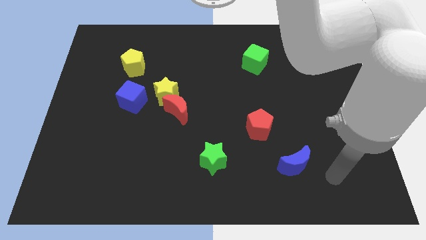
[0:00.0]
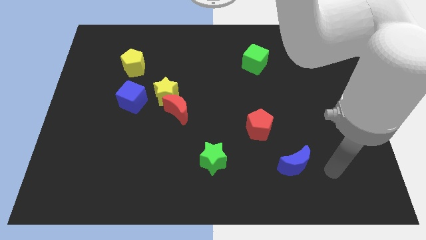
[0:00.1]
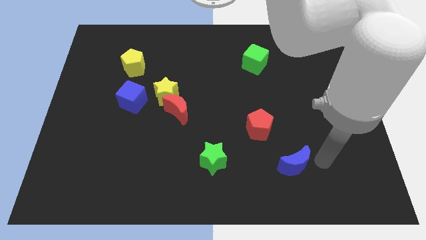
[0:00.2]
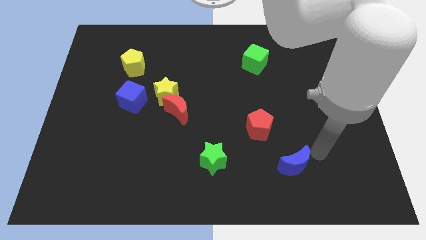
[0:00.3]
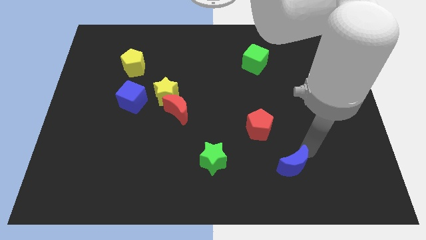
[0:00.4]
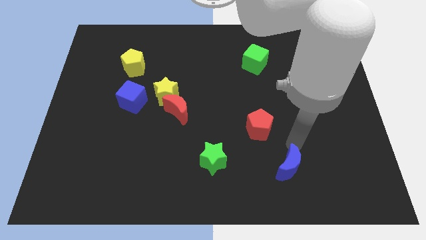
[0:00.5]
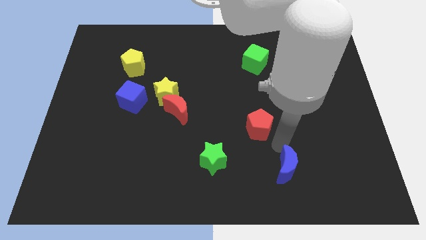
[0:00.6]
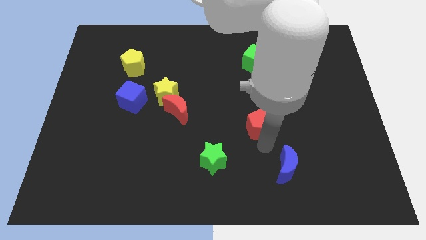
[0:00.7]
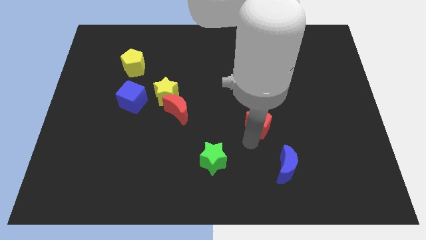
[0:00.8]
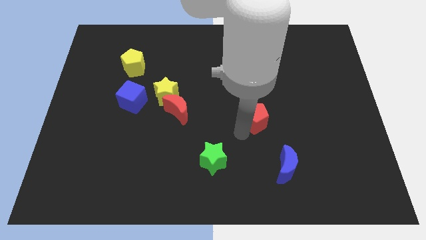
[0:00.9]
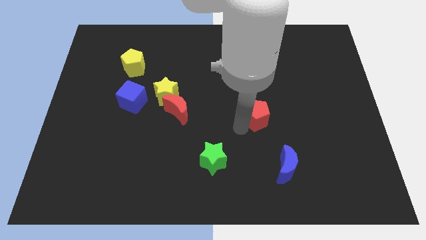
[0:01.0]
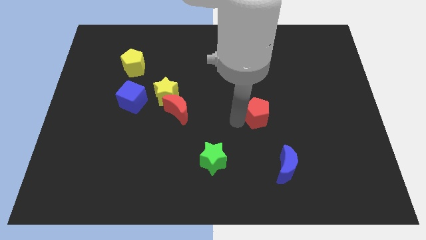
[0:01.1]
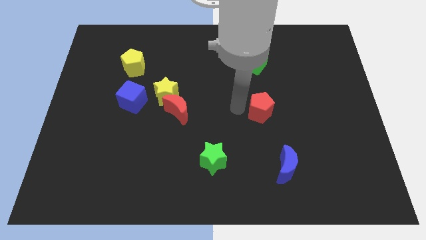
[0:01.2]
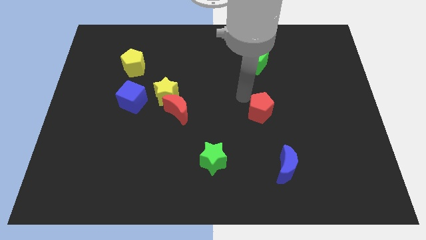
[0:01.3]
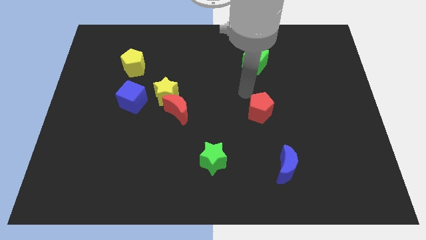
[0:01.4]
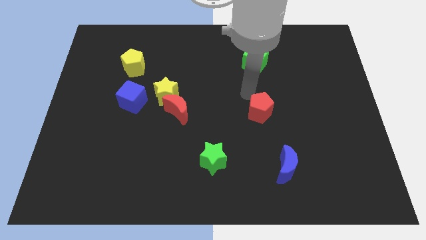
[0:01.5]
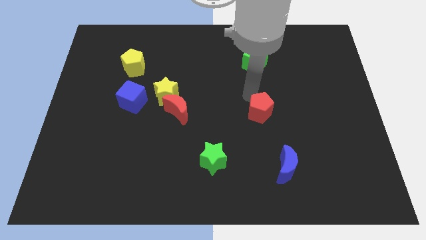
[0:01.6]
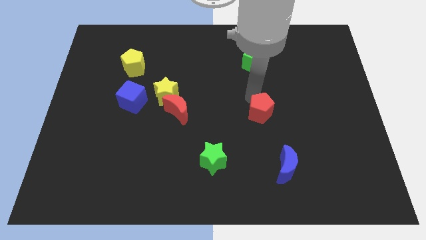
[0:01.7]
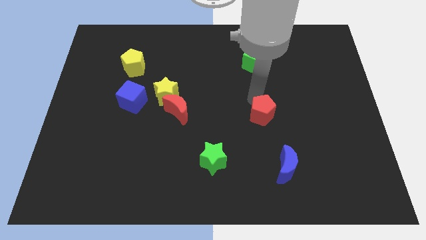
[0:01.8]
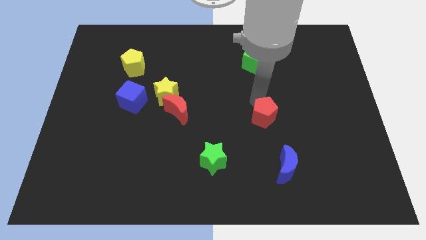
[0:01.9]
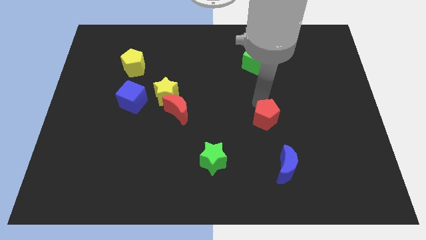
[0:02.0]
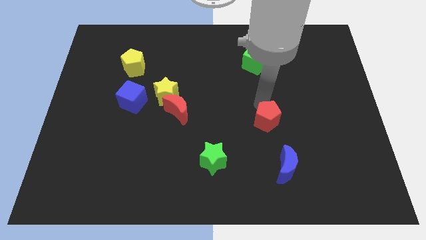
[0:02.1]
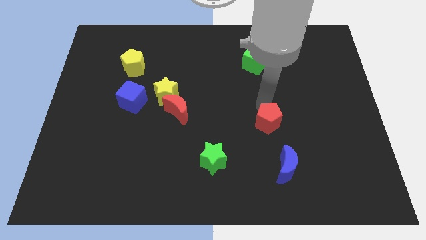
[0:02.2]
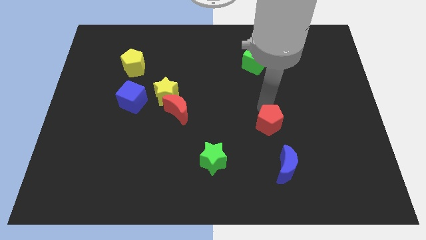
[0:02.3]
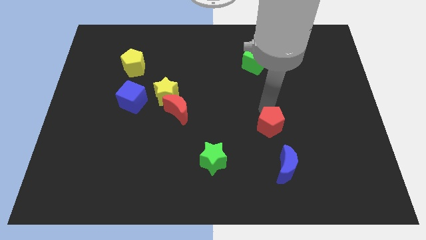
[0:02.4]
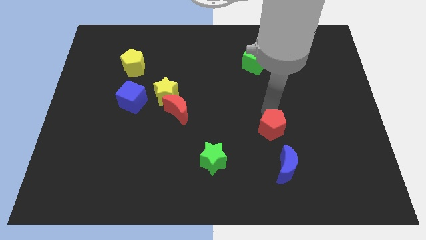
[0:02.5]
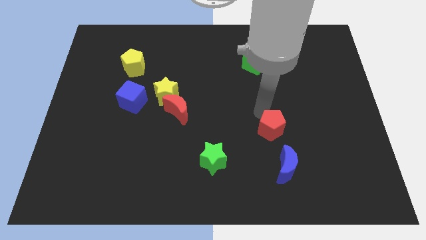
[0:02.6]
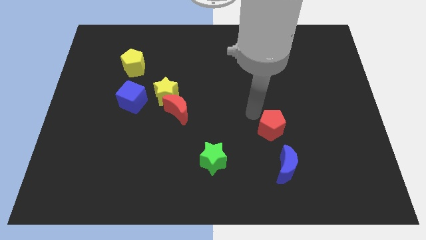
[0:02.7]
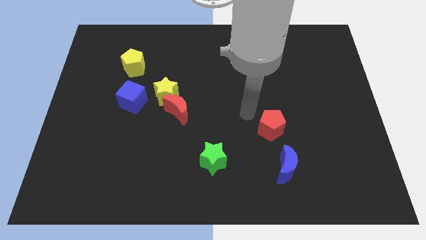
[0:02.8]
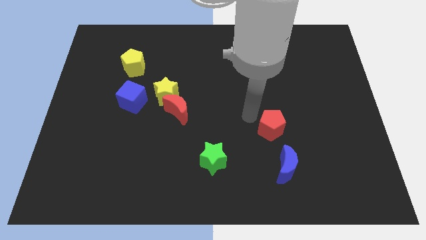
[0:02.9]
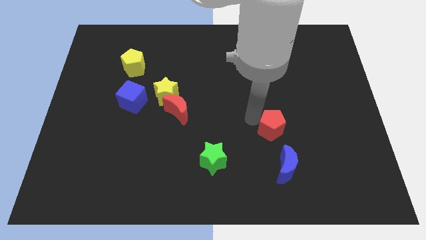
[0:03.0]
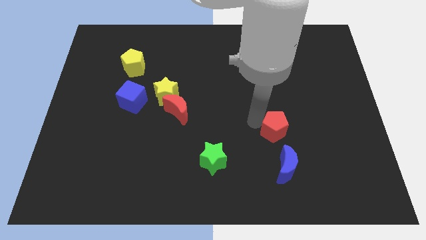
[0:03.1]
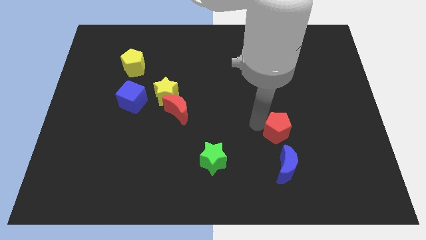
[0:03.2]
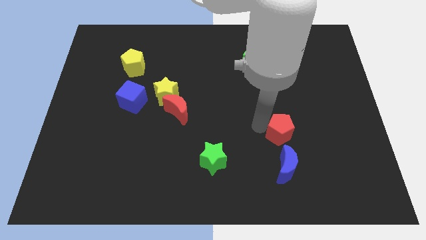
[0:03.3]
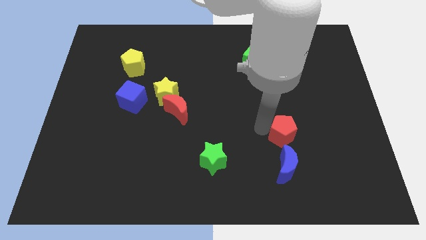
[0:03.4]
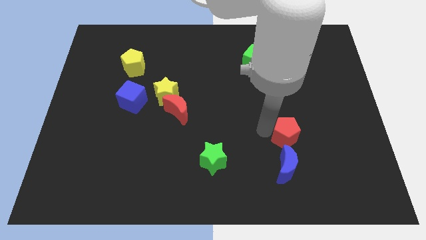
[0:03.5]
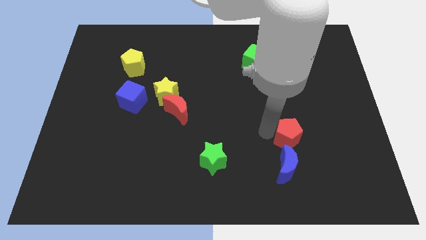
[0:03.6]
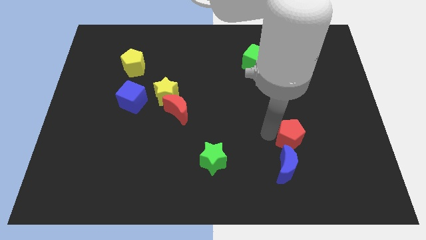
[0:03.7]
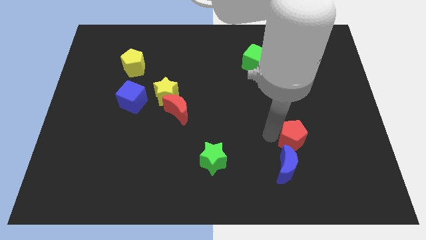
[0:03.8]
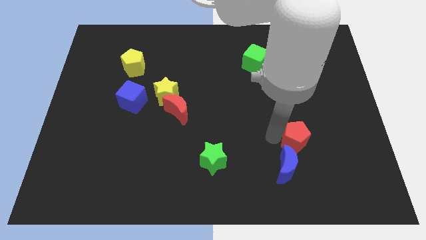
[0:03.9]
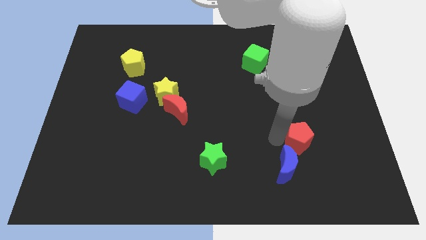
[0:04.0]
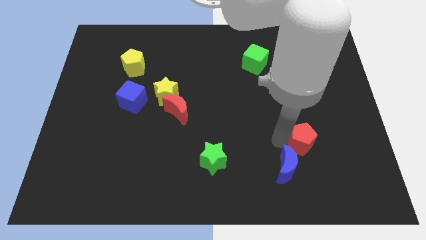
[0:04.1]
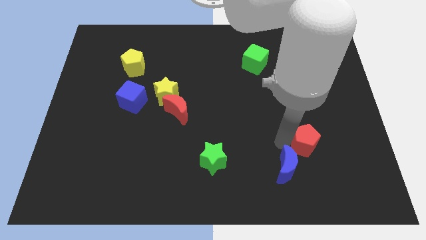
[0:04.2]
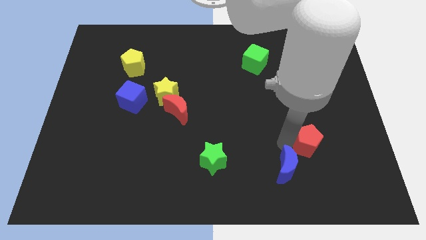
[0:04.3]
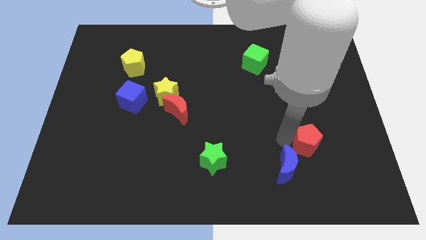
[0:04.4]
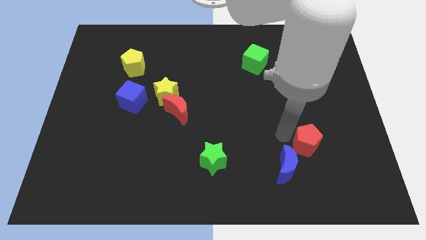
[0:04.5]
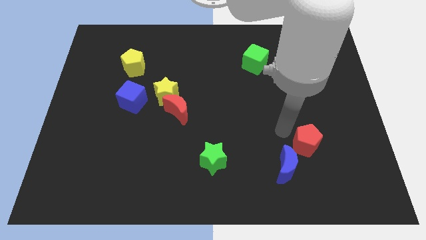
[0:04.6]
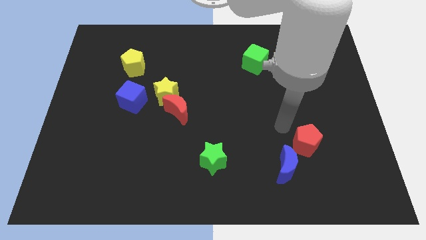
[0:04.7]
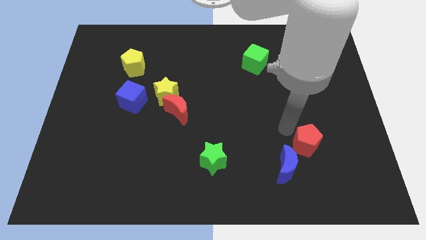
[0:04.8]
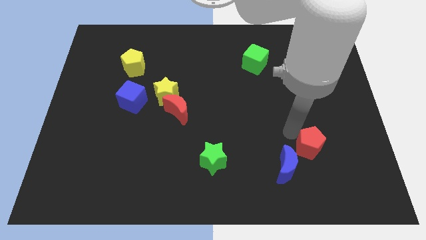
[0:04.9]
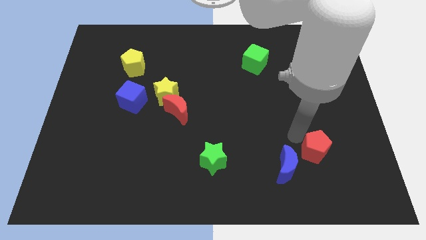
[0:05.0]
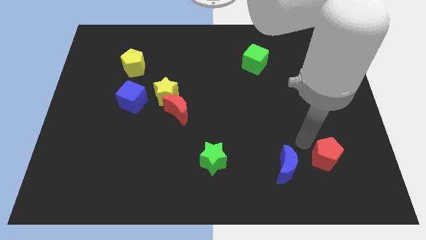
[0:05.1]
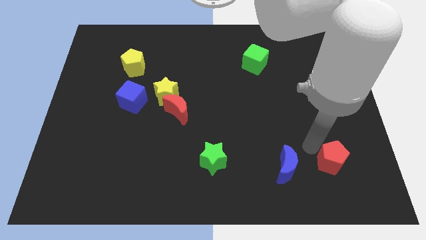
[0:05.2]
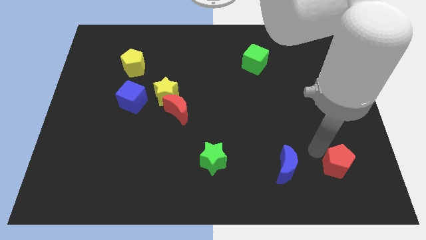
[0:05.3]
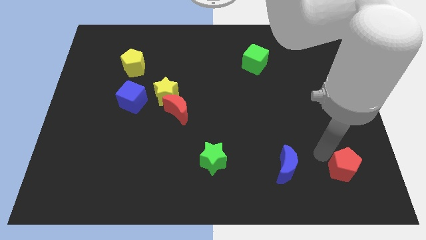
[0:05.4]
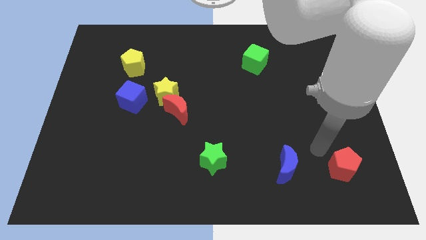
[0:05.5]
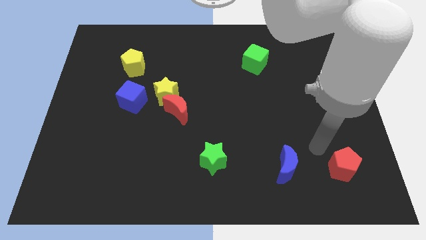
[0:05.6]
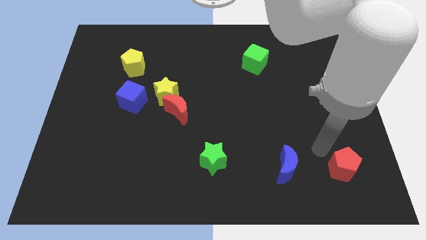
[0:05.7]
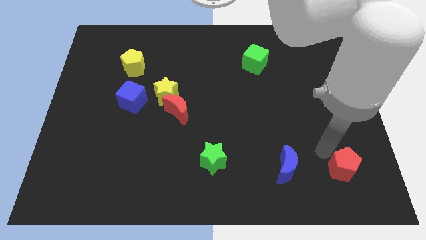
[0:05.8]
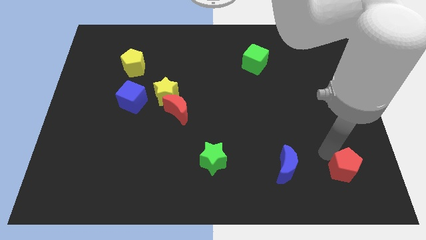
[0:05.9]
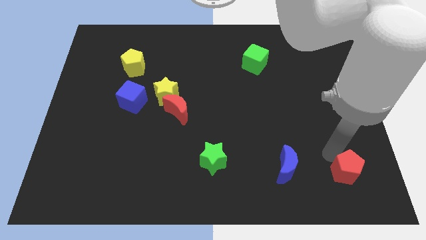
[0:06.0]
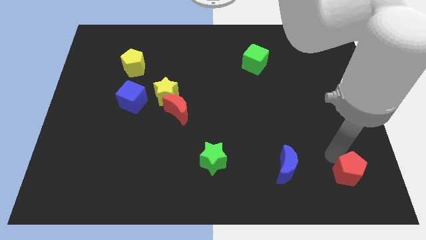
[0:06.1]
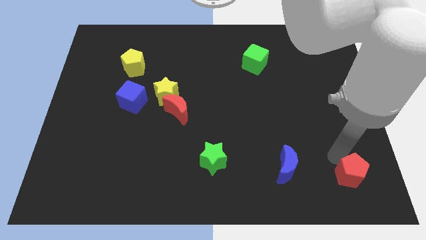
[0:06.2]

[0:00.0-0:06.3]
put the red pentagon to the bottom right of the board

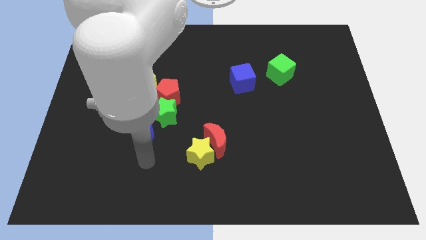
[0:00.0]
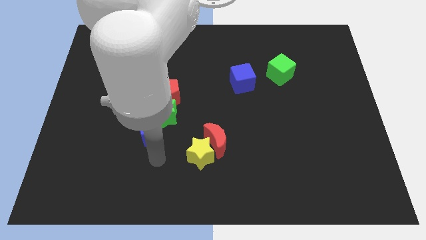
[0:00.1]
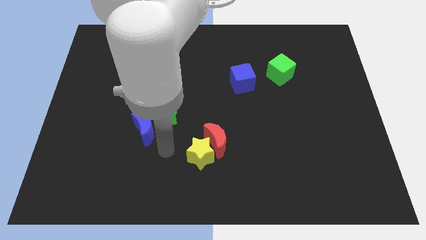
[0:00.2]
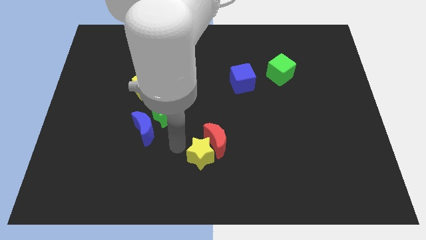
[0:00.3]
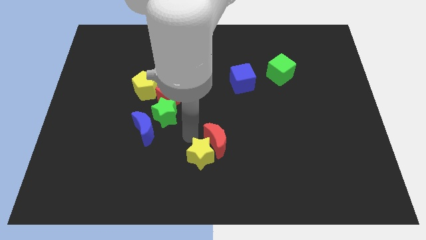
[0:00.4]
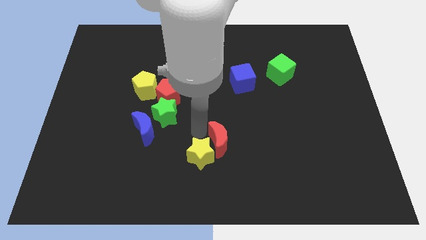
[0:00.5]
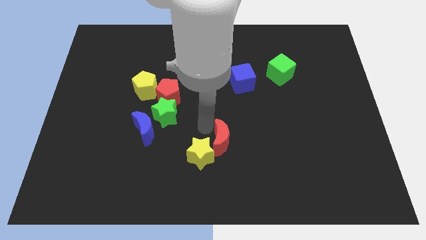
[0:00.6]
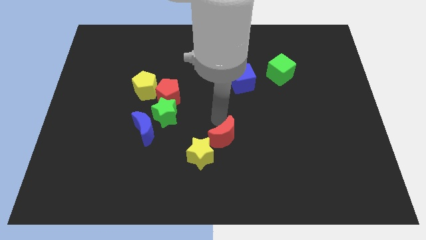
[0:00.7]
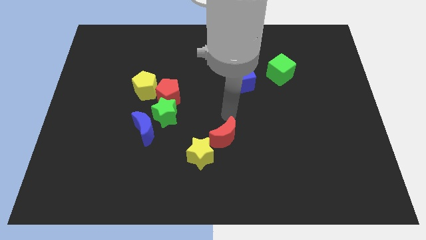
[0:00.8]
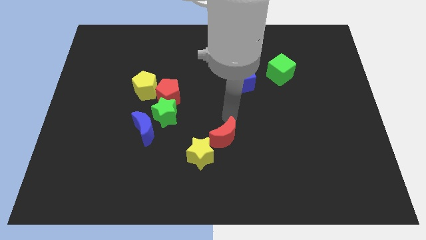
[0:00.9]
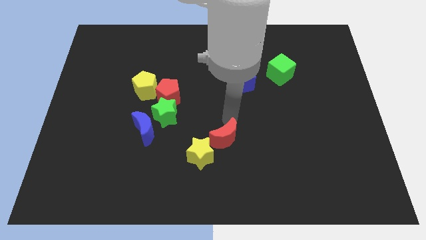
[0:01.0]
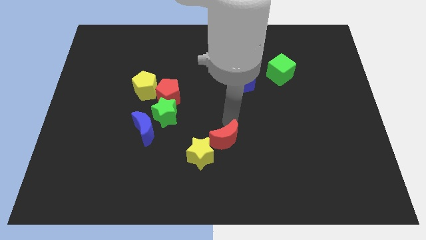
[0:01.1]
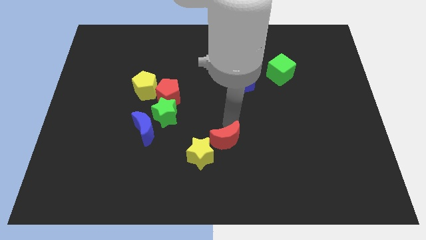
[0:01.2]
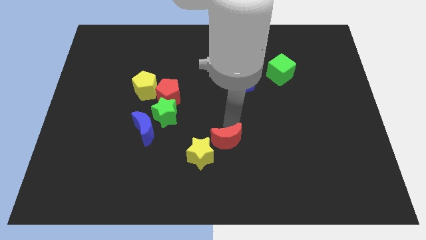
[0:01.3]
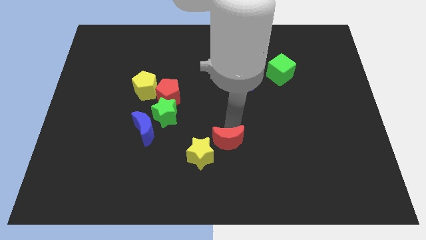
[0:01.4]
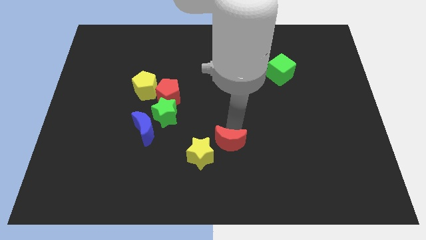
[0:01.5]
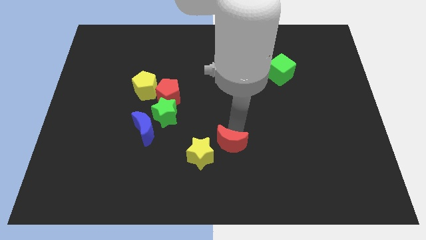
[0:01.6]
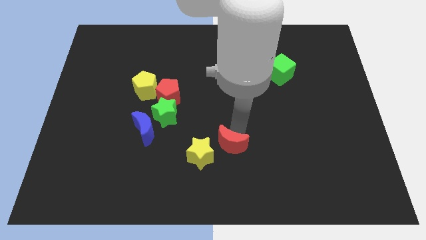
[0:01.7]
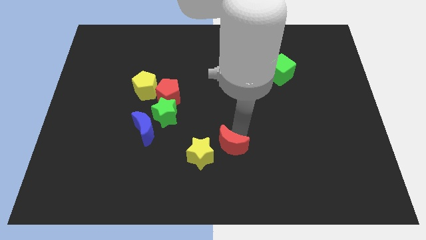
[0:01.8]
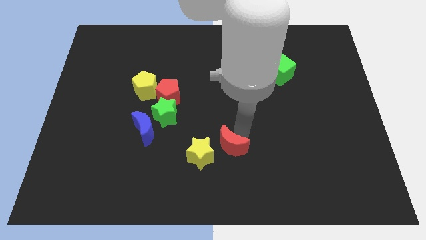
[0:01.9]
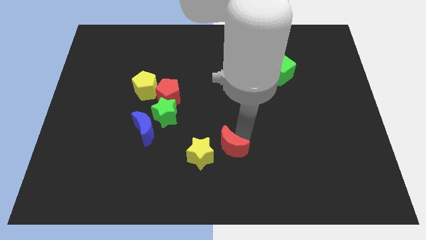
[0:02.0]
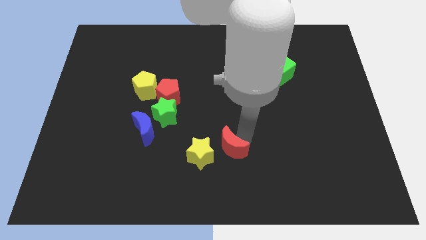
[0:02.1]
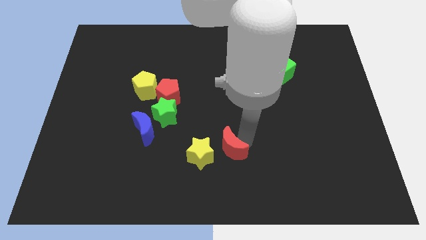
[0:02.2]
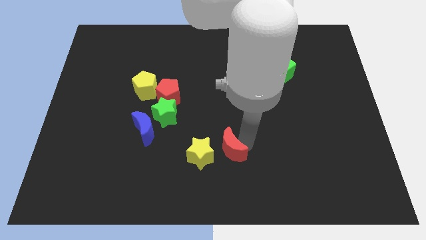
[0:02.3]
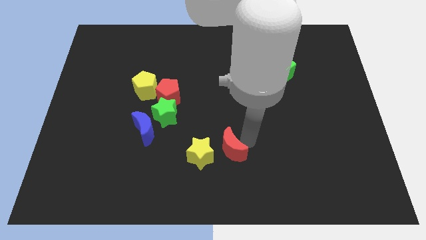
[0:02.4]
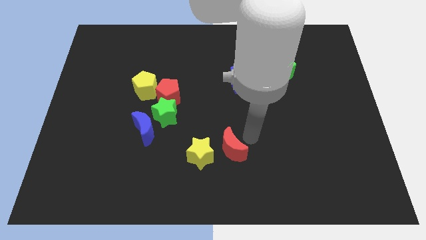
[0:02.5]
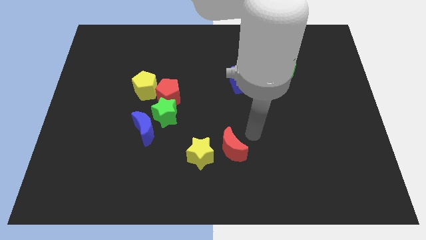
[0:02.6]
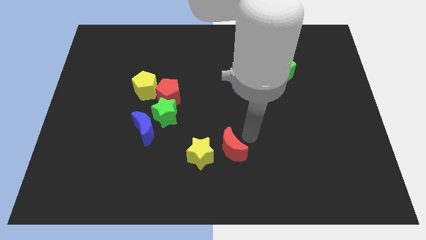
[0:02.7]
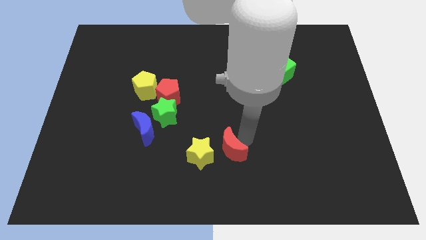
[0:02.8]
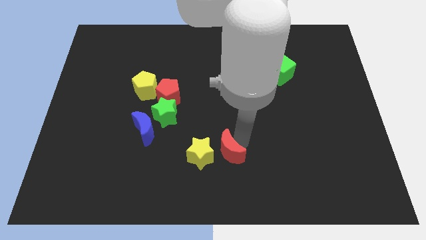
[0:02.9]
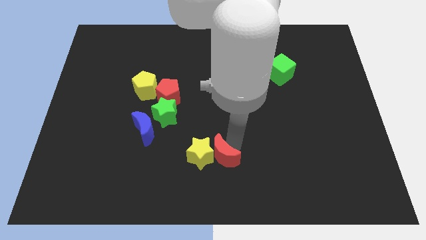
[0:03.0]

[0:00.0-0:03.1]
slide the red moon to the bottom
